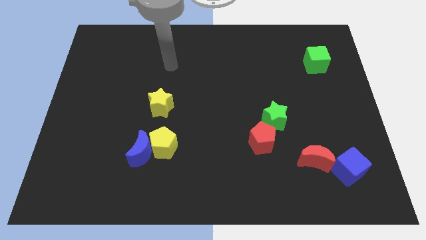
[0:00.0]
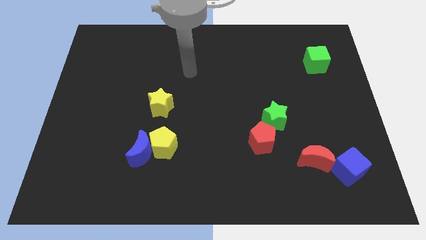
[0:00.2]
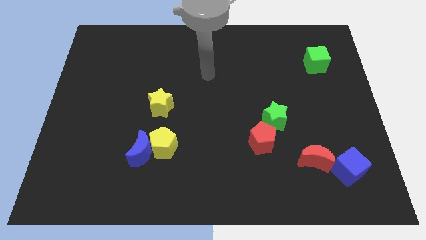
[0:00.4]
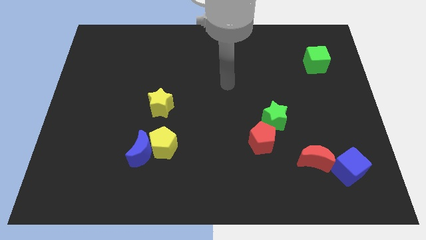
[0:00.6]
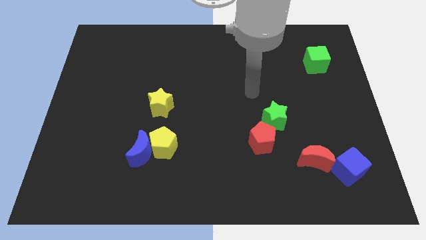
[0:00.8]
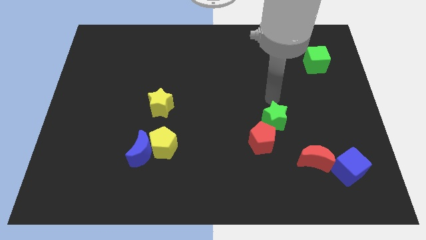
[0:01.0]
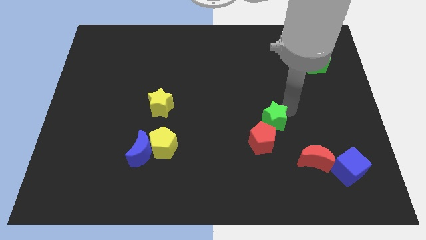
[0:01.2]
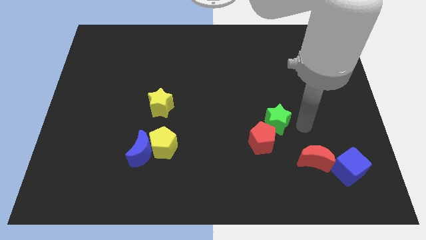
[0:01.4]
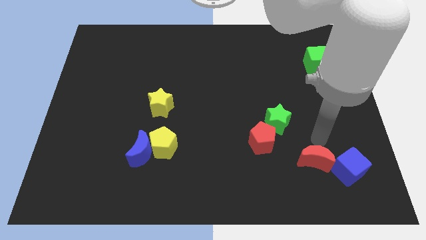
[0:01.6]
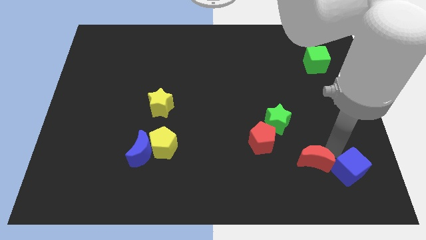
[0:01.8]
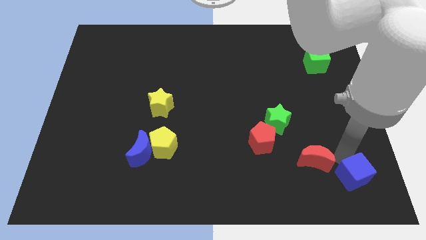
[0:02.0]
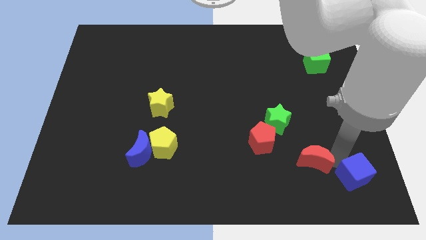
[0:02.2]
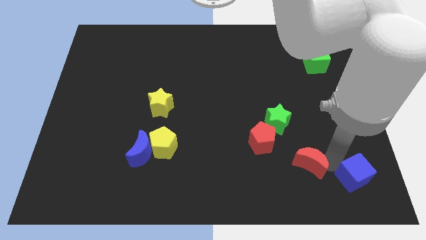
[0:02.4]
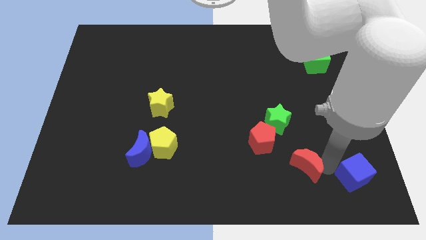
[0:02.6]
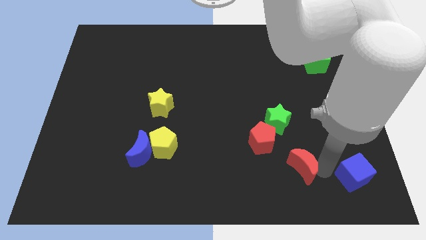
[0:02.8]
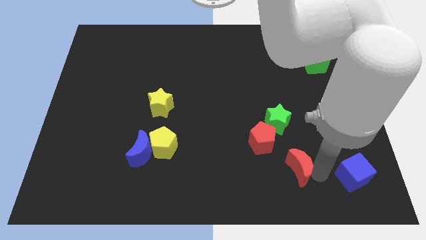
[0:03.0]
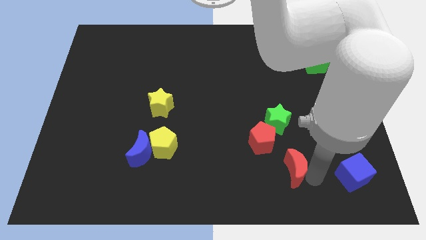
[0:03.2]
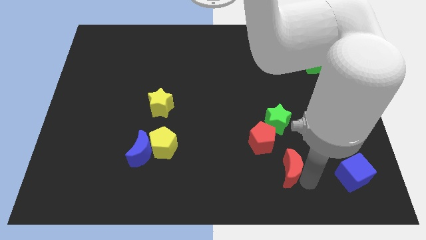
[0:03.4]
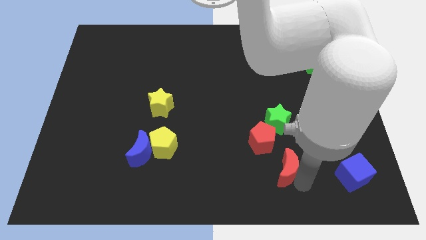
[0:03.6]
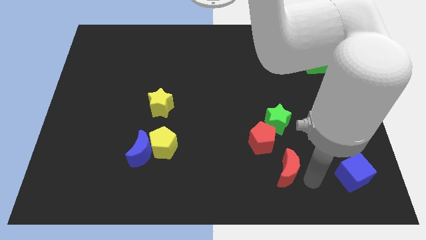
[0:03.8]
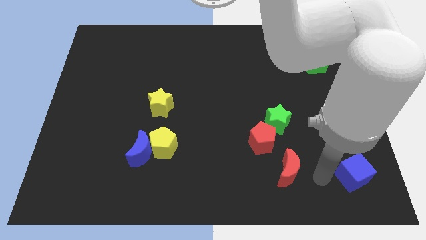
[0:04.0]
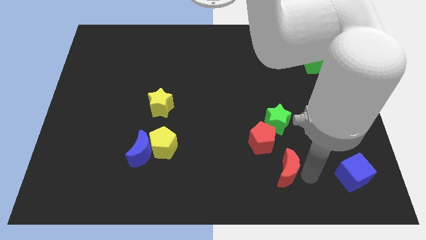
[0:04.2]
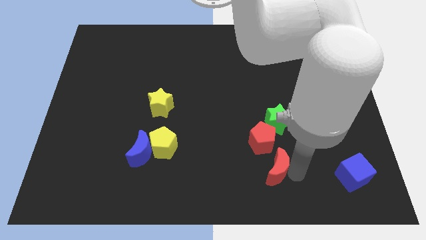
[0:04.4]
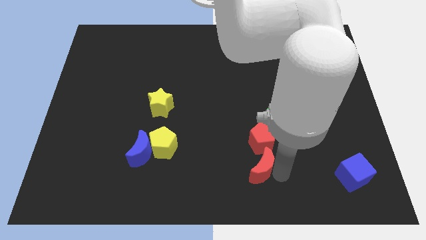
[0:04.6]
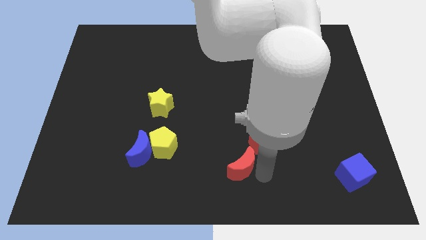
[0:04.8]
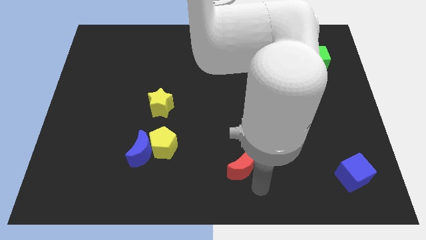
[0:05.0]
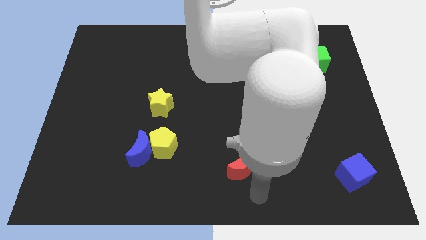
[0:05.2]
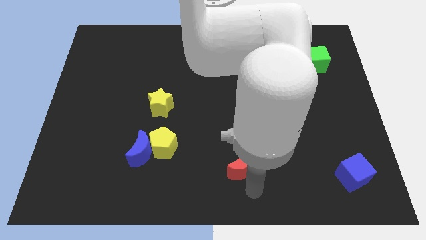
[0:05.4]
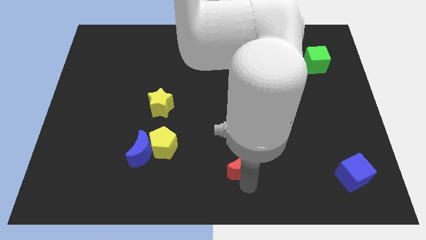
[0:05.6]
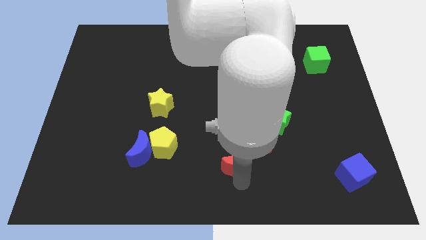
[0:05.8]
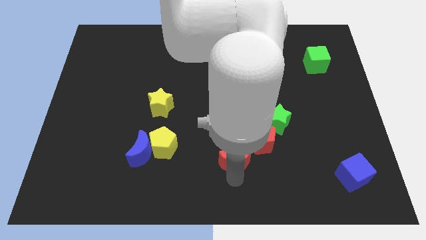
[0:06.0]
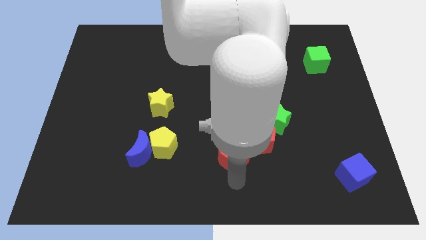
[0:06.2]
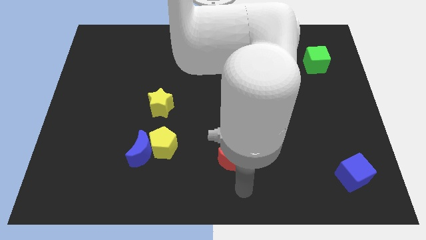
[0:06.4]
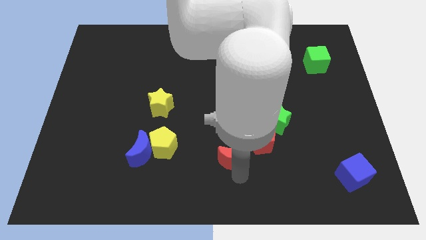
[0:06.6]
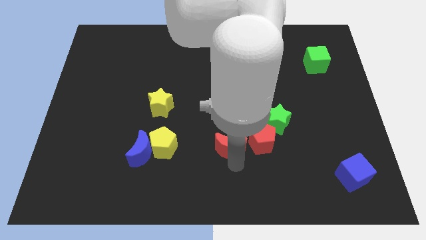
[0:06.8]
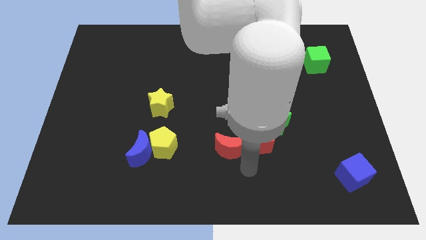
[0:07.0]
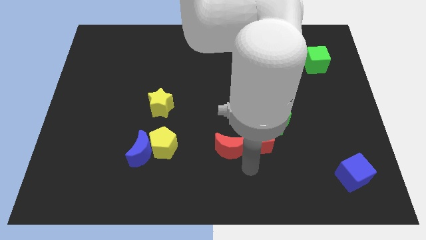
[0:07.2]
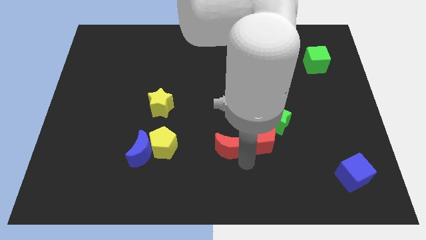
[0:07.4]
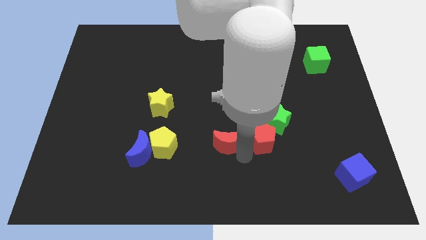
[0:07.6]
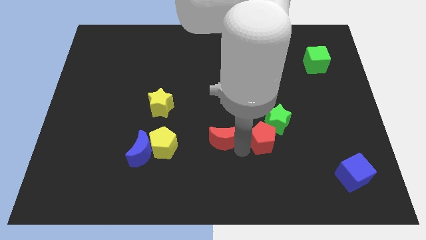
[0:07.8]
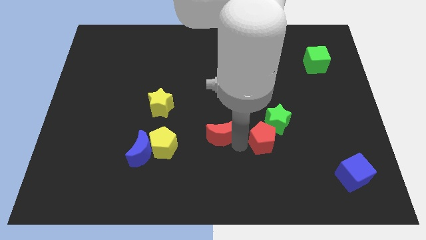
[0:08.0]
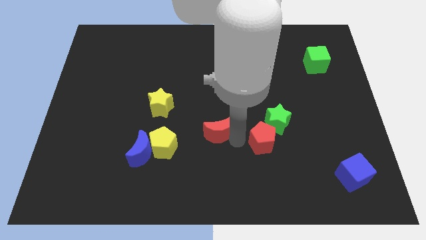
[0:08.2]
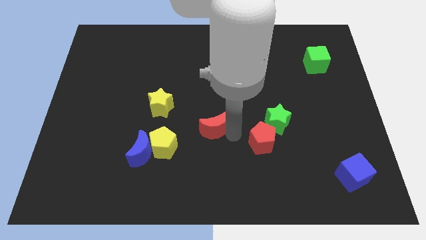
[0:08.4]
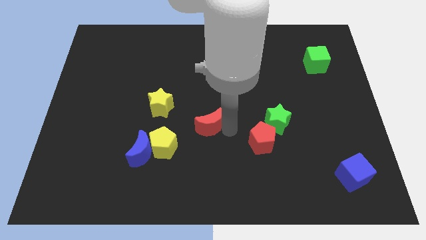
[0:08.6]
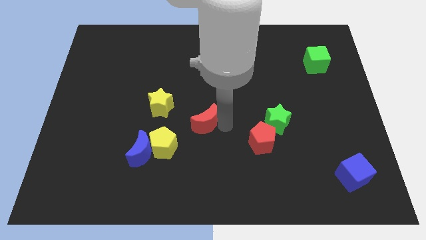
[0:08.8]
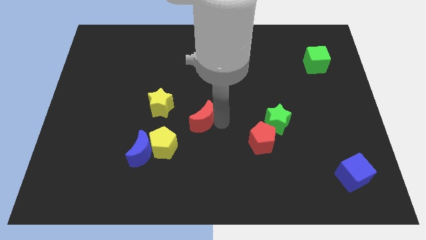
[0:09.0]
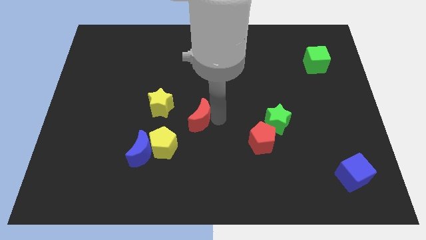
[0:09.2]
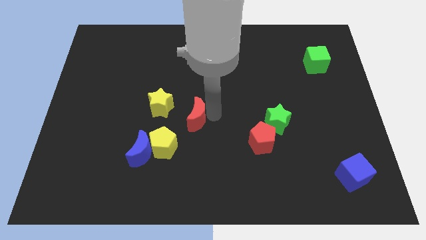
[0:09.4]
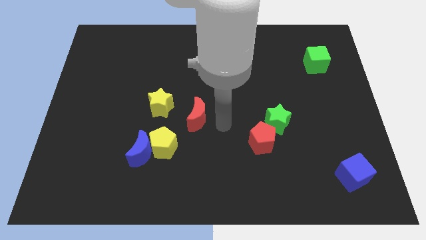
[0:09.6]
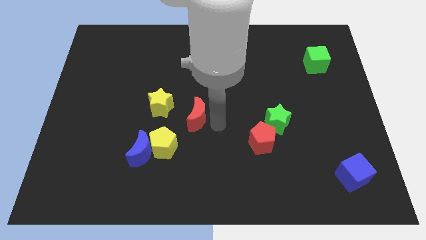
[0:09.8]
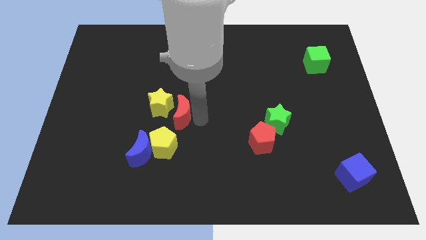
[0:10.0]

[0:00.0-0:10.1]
put the red moon close to the yellow star

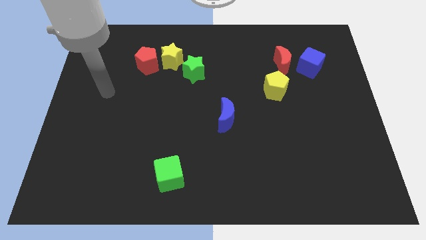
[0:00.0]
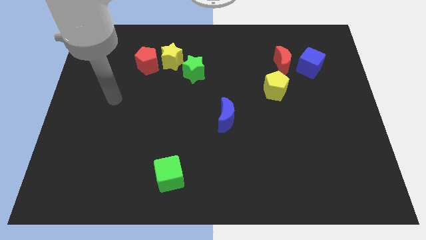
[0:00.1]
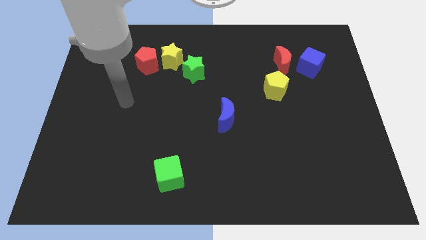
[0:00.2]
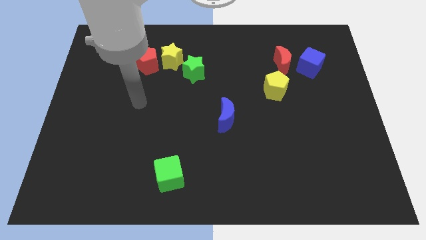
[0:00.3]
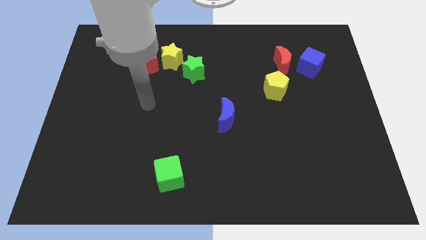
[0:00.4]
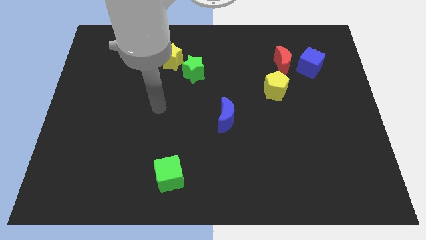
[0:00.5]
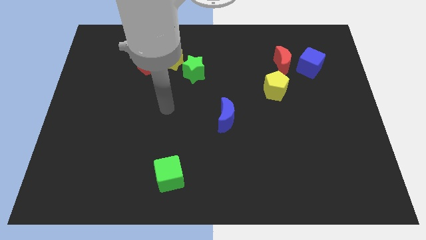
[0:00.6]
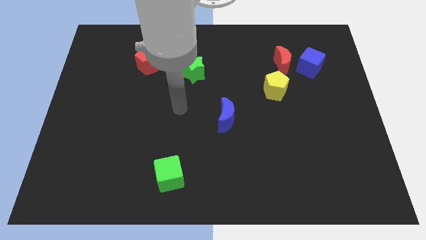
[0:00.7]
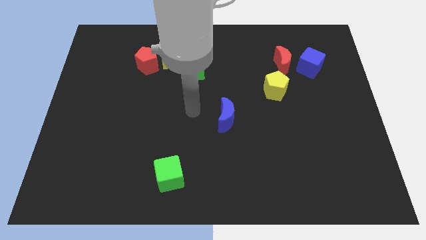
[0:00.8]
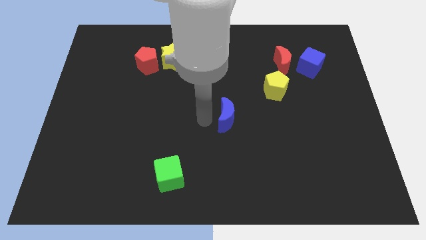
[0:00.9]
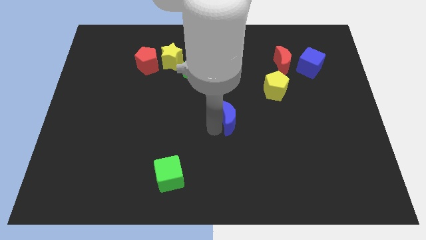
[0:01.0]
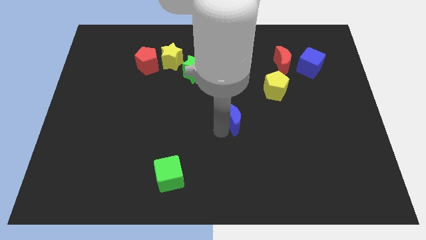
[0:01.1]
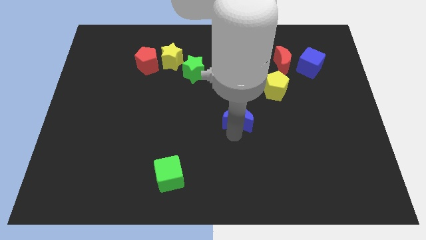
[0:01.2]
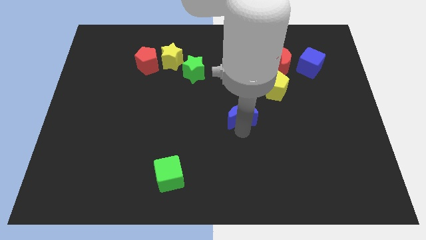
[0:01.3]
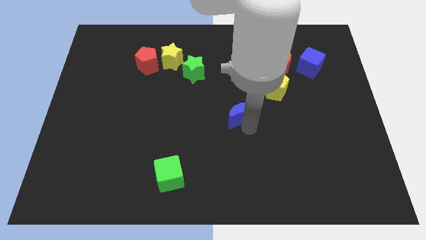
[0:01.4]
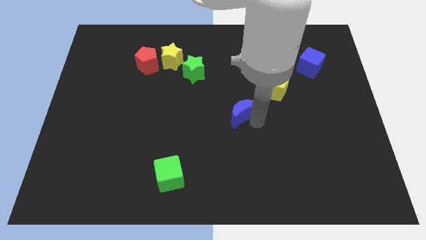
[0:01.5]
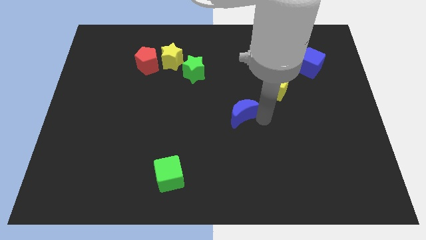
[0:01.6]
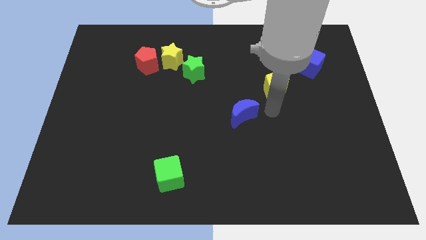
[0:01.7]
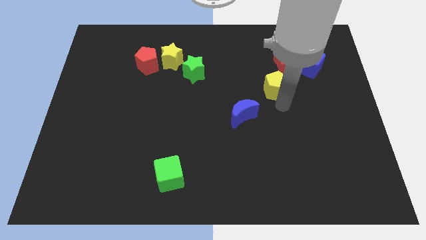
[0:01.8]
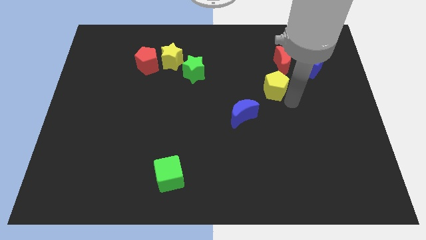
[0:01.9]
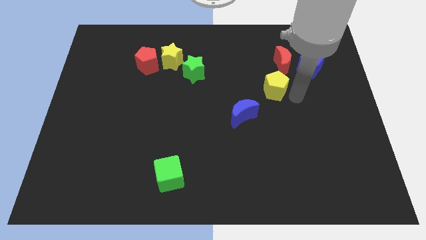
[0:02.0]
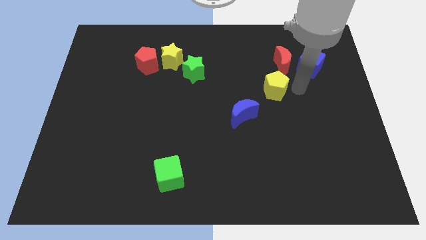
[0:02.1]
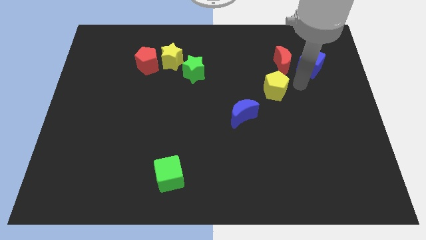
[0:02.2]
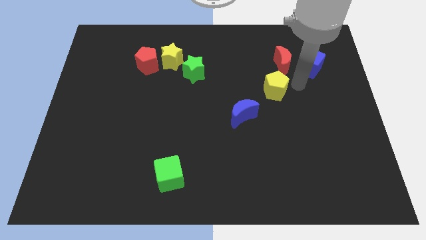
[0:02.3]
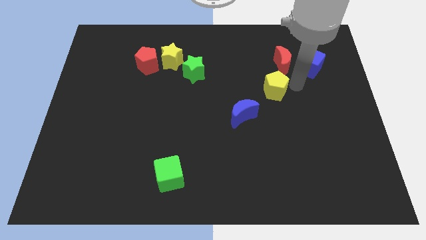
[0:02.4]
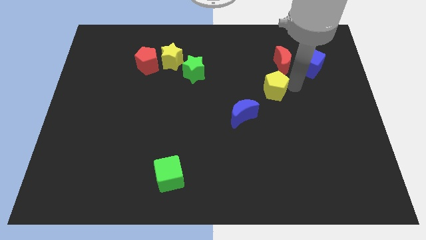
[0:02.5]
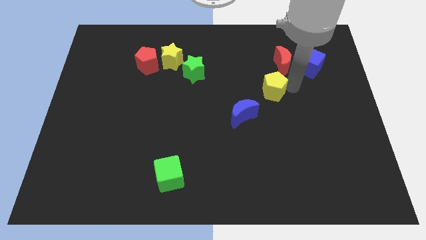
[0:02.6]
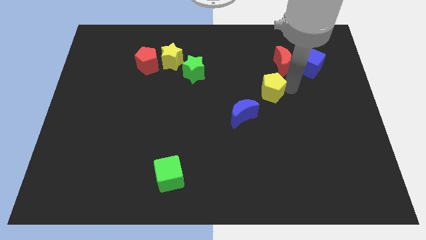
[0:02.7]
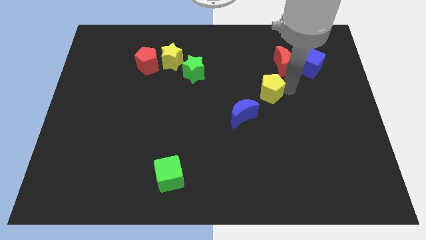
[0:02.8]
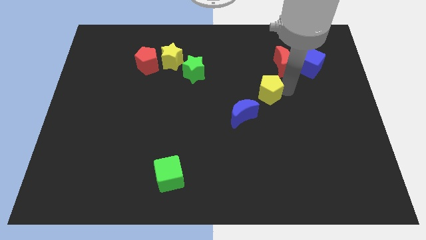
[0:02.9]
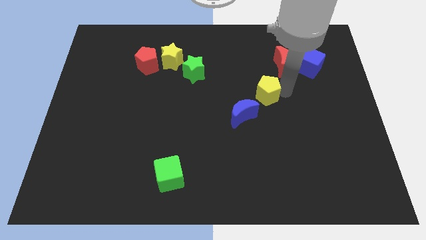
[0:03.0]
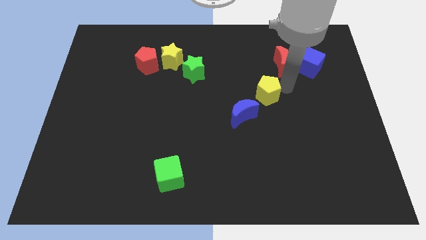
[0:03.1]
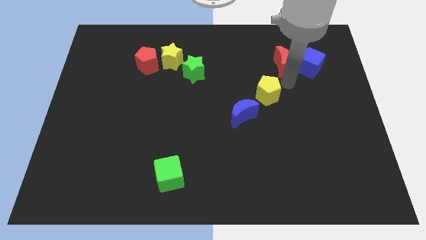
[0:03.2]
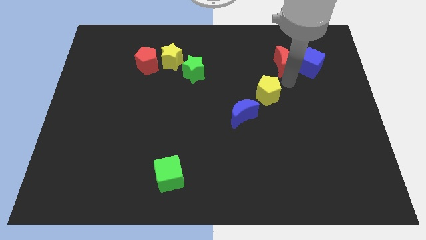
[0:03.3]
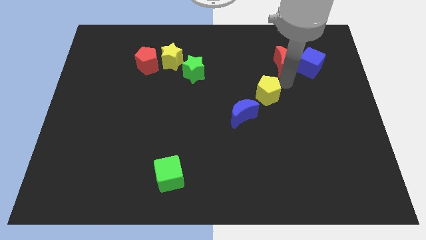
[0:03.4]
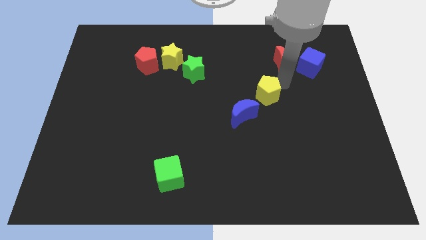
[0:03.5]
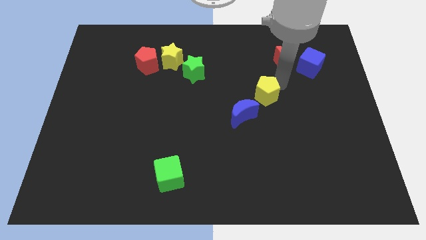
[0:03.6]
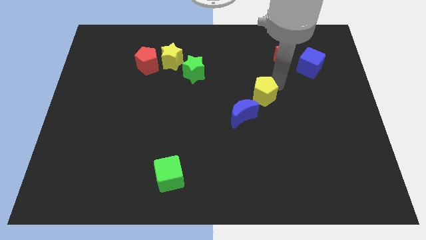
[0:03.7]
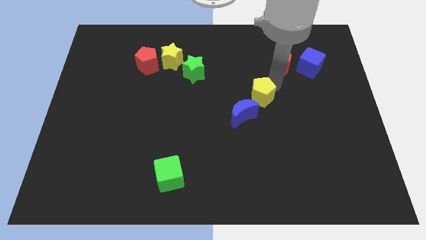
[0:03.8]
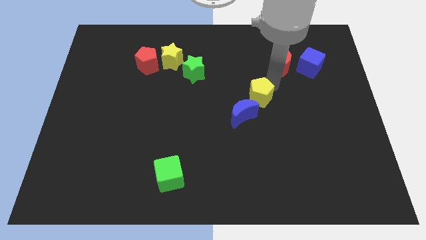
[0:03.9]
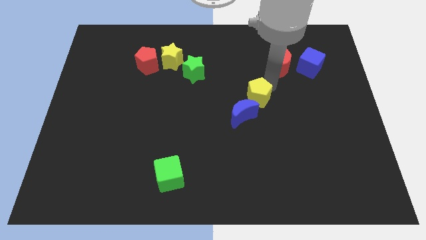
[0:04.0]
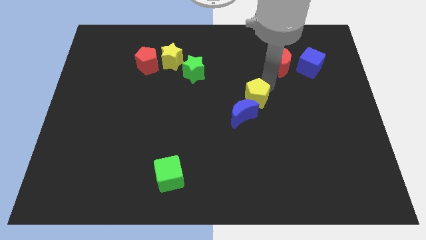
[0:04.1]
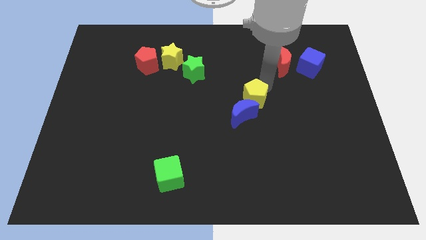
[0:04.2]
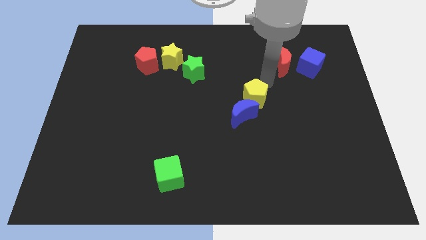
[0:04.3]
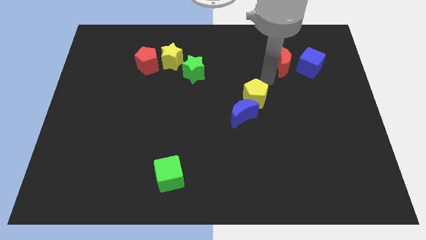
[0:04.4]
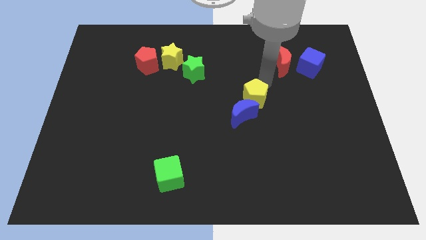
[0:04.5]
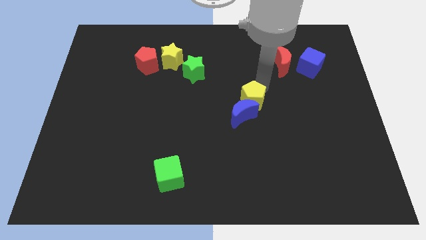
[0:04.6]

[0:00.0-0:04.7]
push the yellow pentagon close to the blue moon
